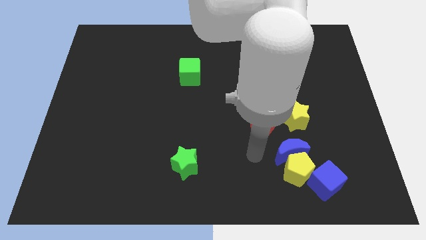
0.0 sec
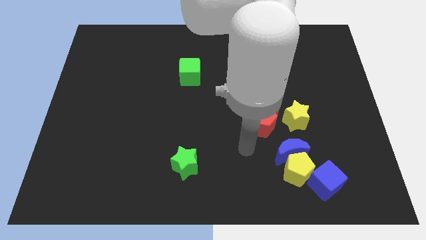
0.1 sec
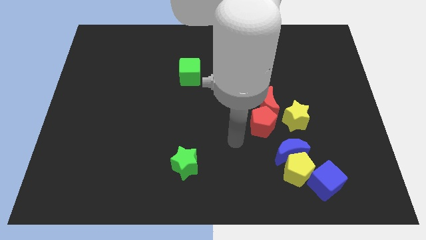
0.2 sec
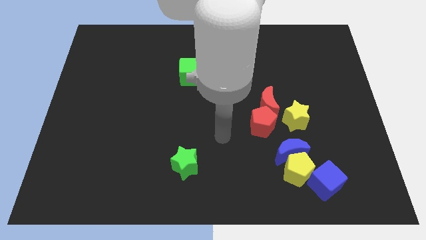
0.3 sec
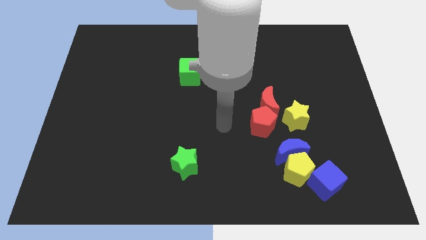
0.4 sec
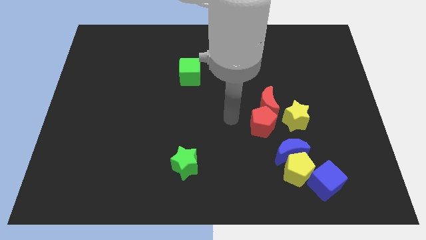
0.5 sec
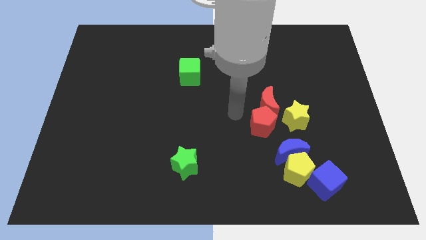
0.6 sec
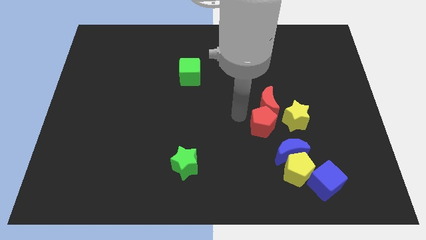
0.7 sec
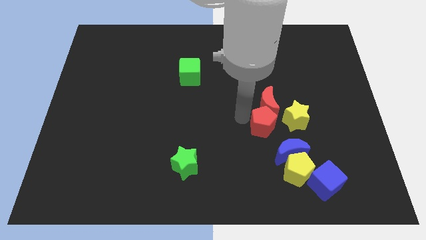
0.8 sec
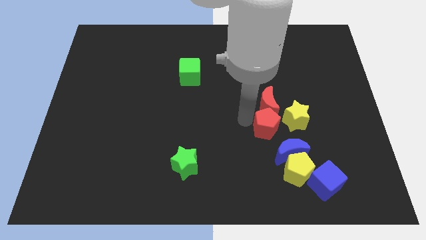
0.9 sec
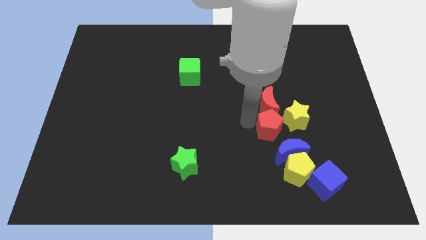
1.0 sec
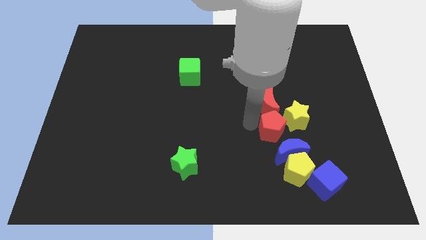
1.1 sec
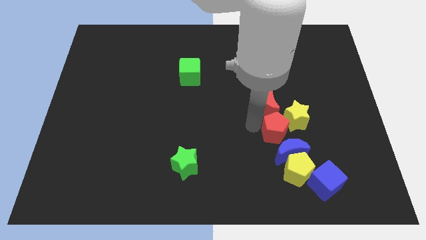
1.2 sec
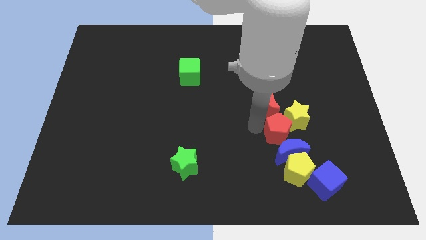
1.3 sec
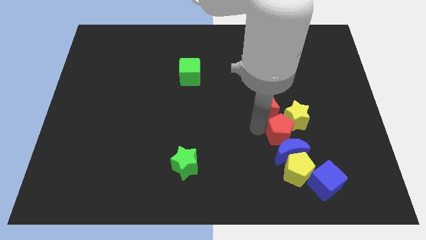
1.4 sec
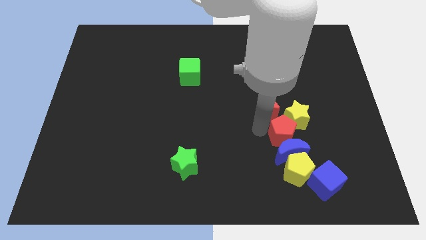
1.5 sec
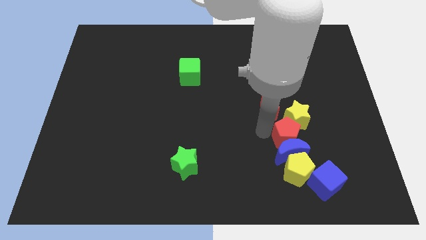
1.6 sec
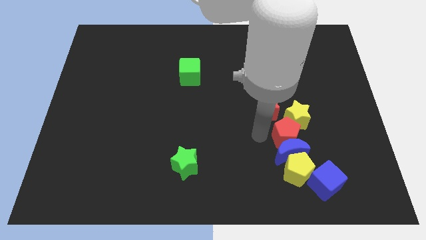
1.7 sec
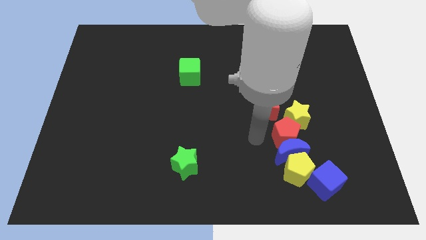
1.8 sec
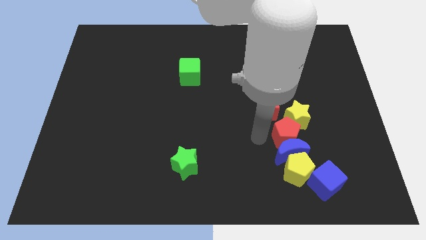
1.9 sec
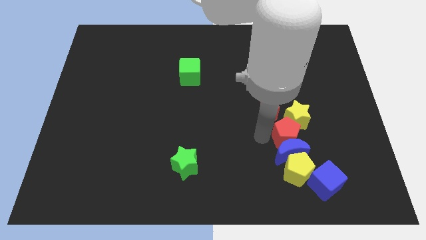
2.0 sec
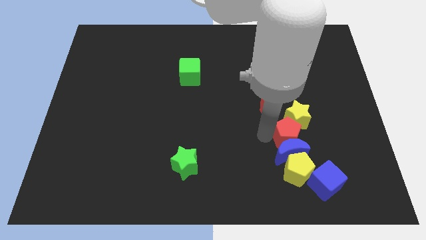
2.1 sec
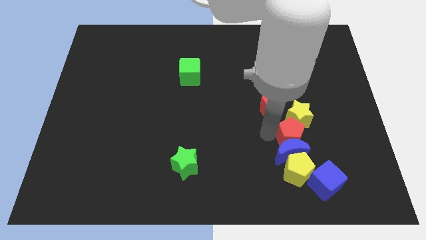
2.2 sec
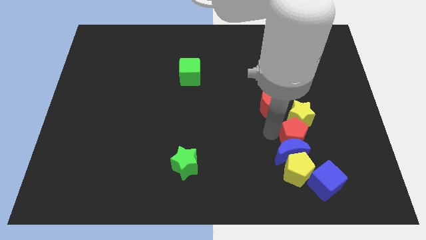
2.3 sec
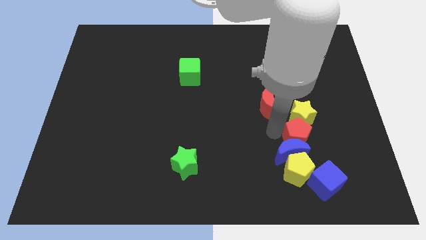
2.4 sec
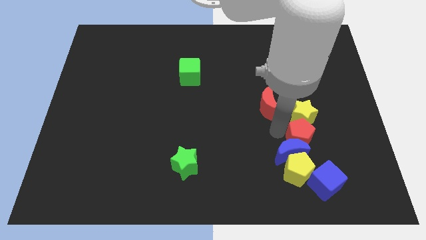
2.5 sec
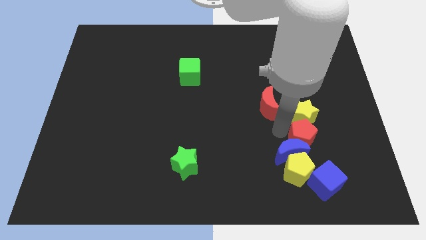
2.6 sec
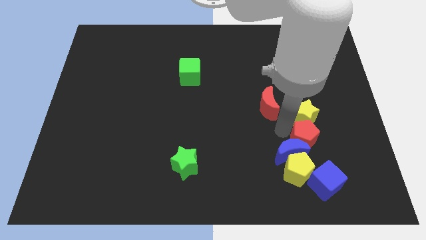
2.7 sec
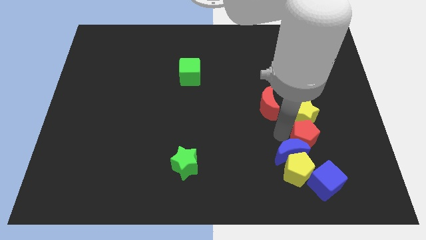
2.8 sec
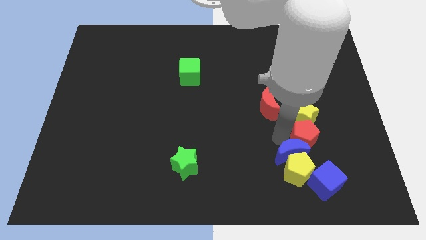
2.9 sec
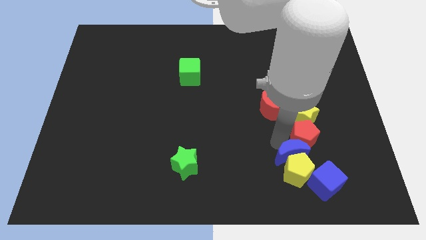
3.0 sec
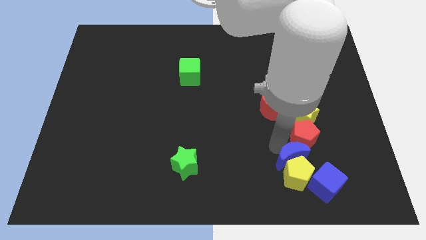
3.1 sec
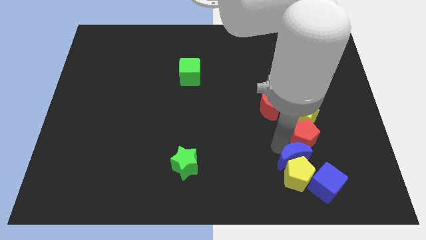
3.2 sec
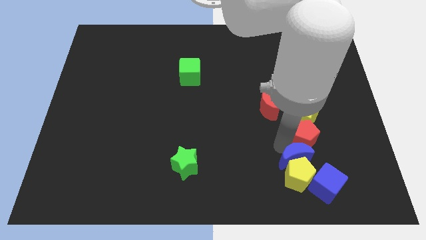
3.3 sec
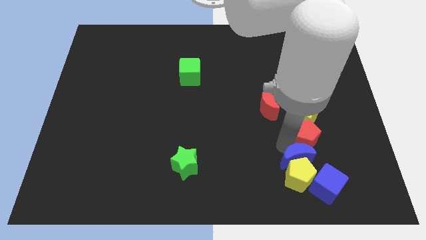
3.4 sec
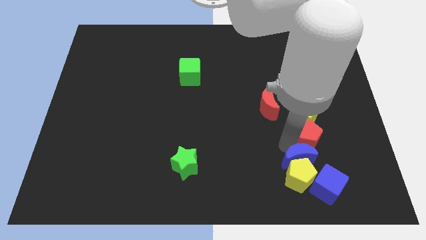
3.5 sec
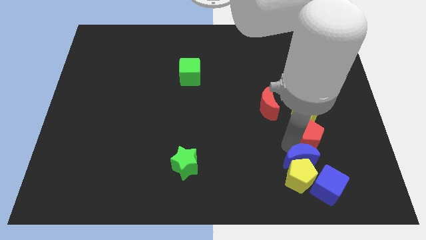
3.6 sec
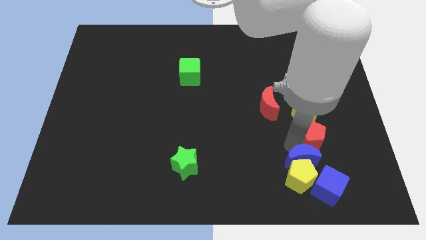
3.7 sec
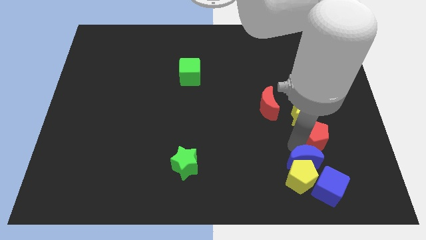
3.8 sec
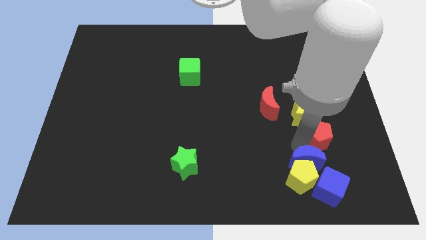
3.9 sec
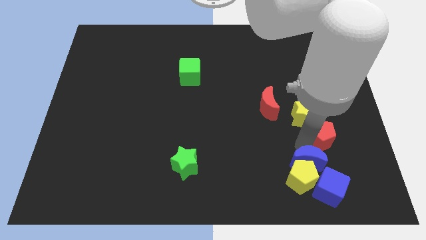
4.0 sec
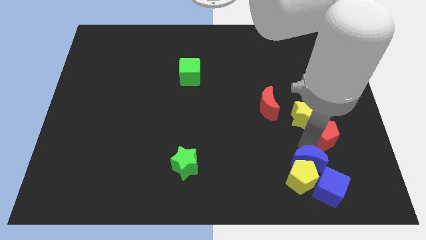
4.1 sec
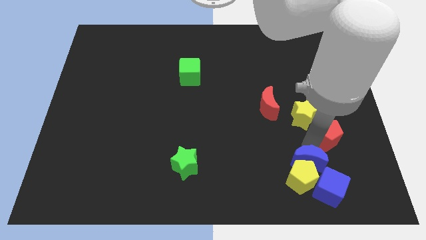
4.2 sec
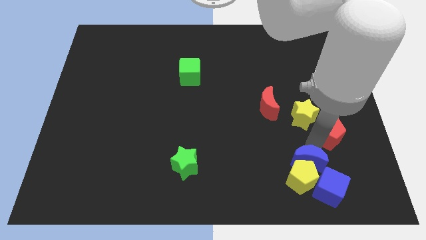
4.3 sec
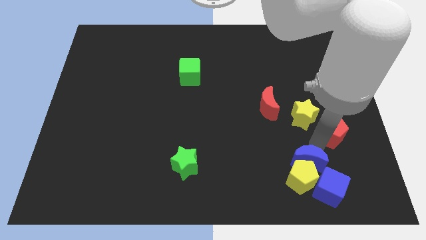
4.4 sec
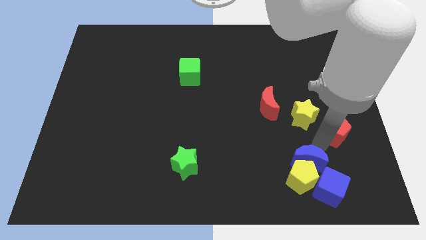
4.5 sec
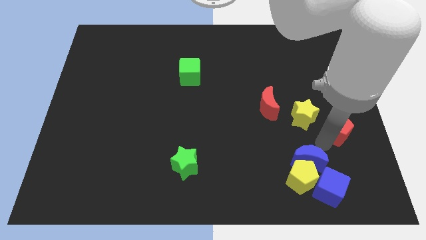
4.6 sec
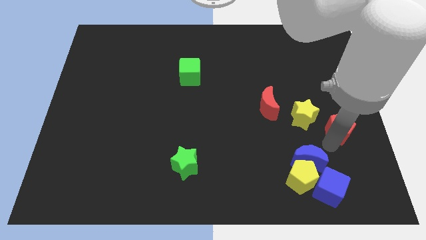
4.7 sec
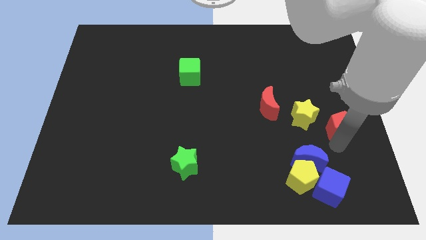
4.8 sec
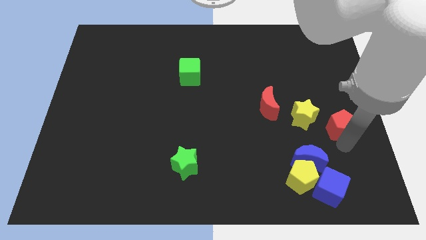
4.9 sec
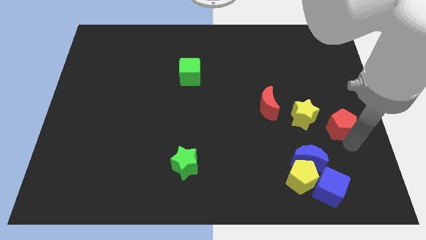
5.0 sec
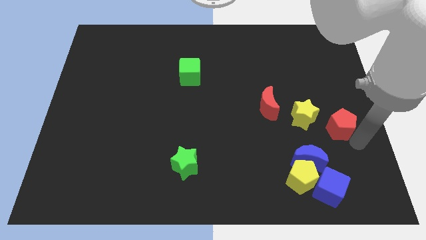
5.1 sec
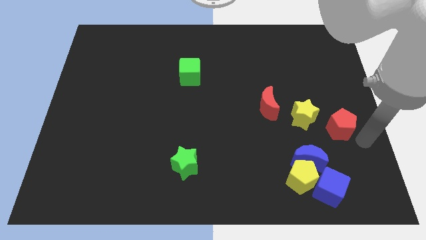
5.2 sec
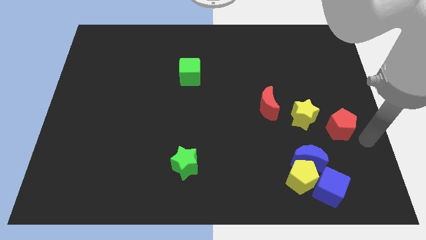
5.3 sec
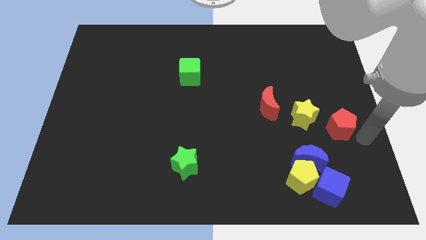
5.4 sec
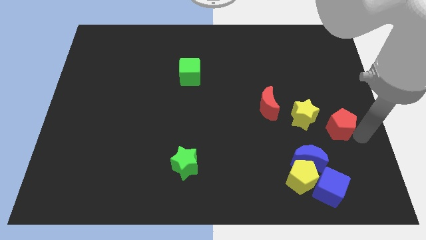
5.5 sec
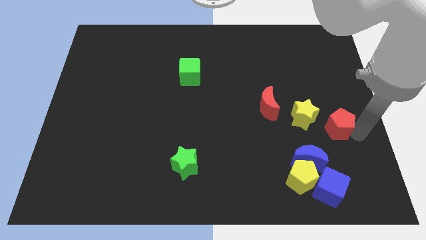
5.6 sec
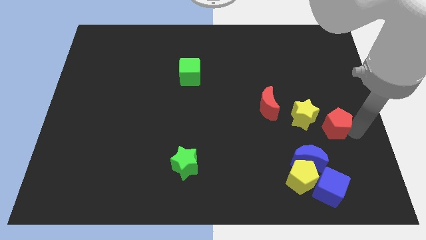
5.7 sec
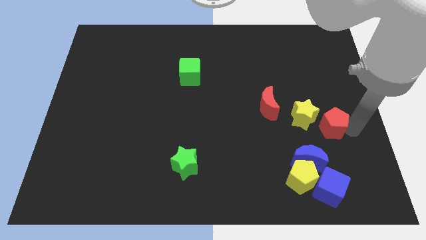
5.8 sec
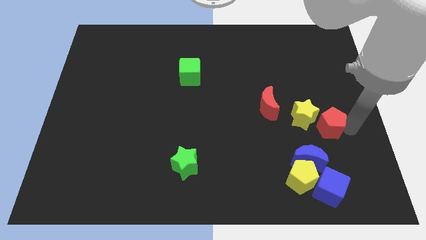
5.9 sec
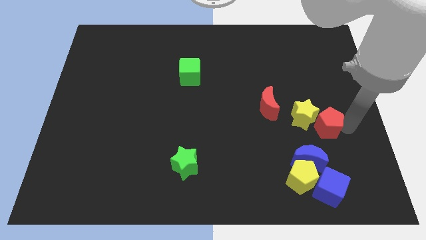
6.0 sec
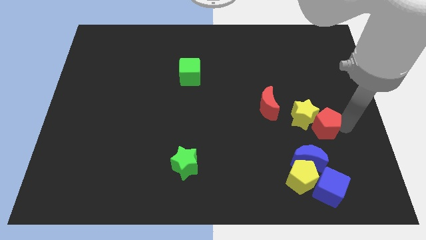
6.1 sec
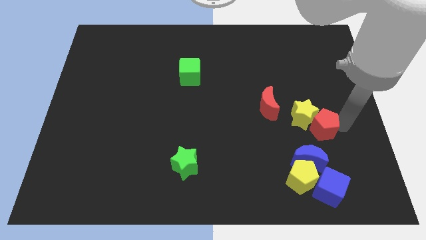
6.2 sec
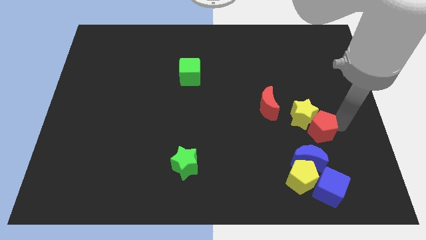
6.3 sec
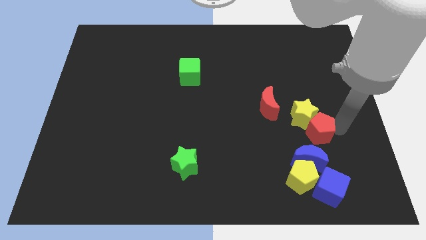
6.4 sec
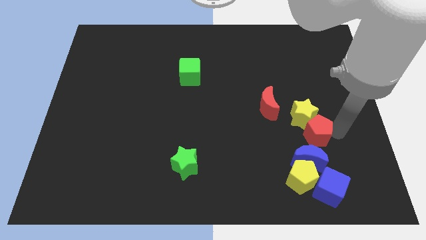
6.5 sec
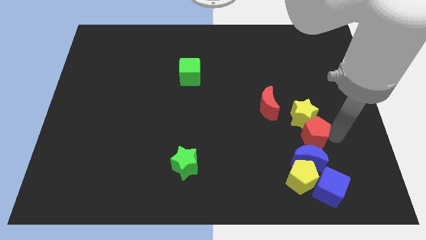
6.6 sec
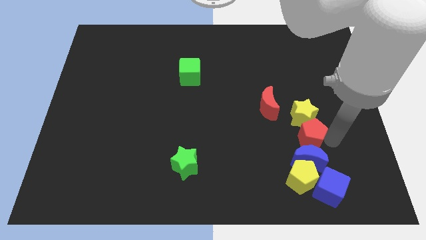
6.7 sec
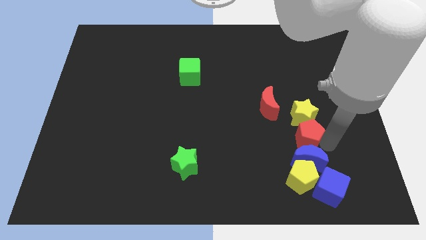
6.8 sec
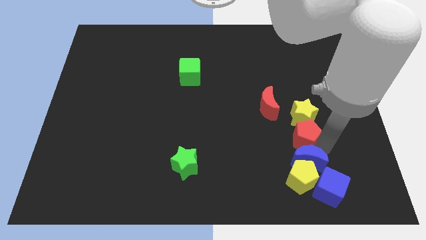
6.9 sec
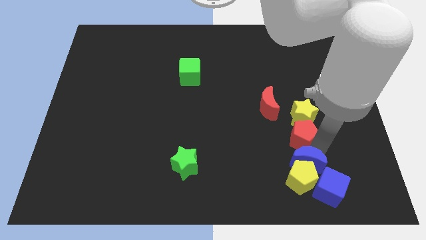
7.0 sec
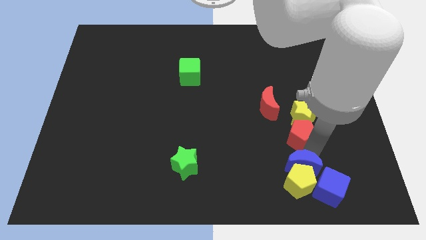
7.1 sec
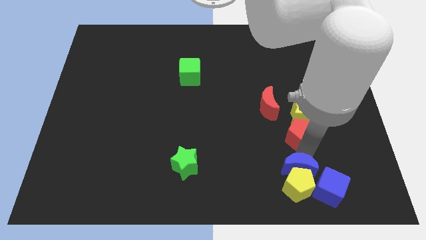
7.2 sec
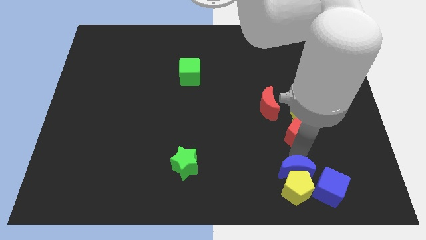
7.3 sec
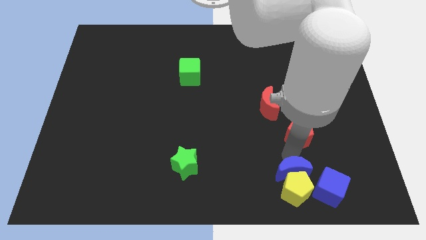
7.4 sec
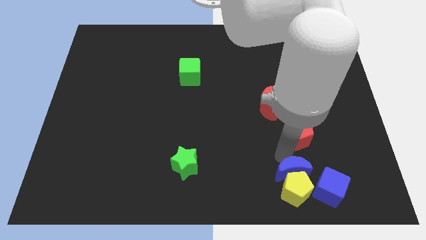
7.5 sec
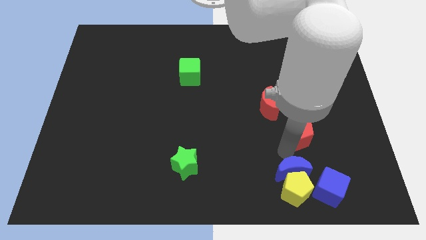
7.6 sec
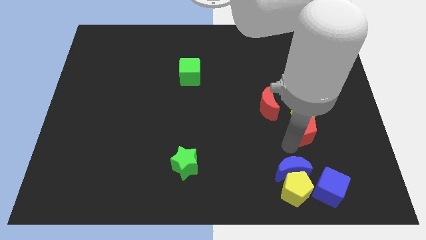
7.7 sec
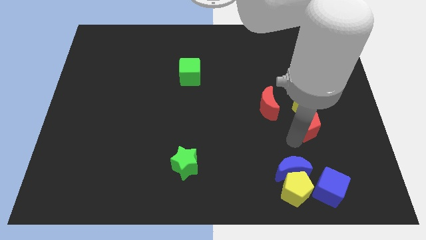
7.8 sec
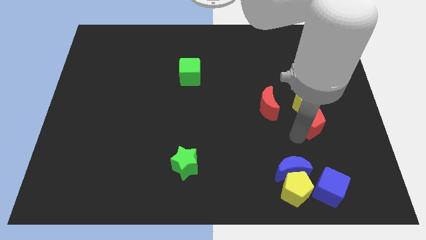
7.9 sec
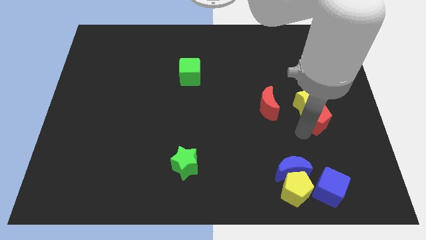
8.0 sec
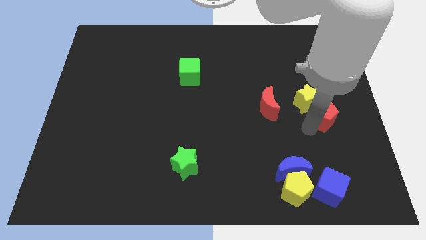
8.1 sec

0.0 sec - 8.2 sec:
slightly push the red pentagon upwards and to the right
